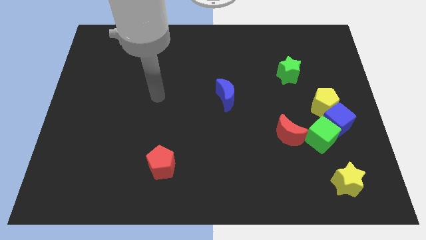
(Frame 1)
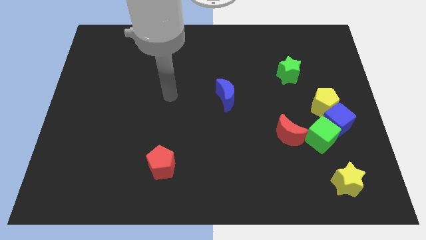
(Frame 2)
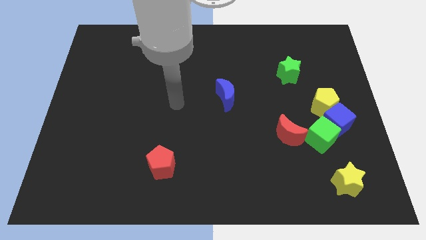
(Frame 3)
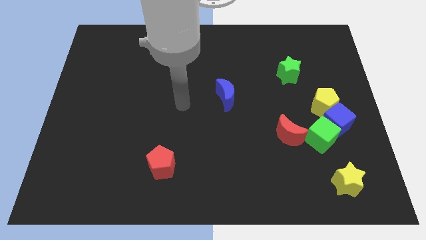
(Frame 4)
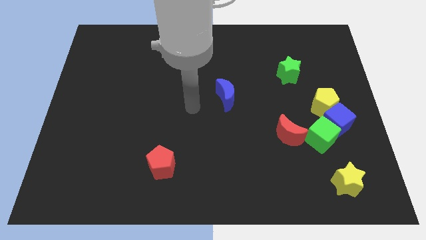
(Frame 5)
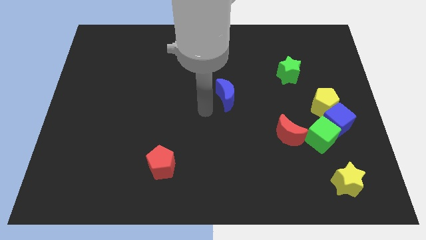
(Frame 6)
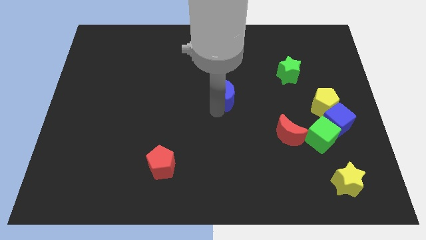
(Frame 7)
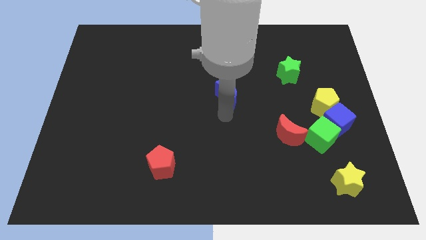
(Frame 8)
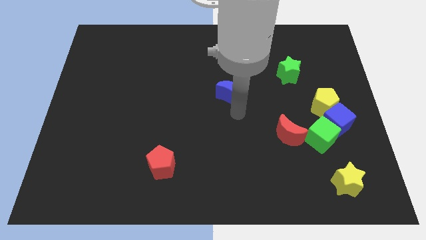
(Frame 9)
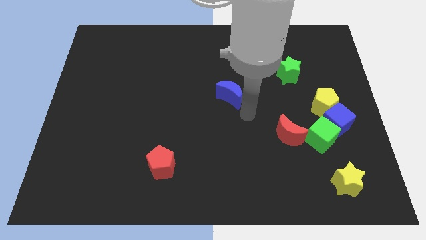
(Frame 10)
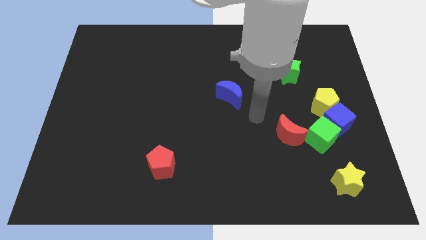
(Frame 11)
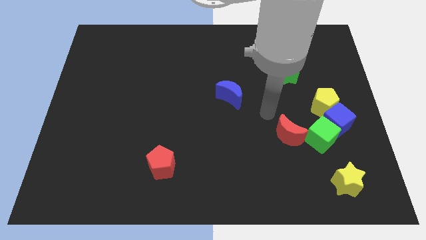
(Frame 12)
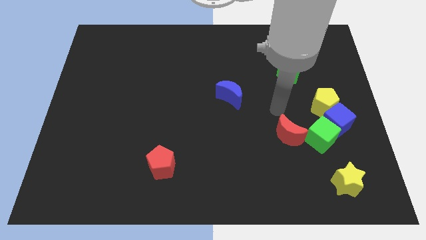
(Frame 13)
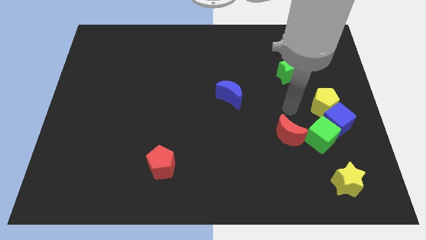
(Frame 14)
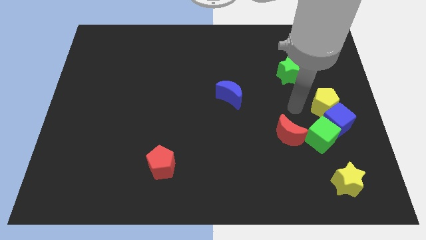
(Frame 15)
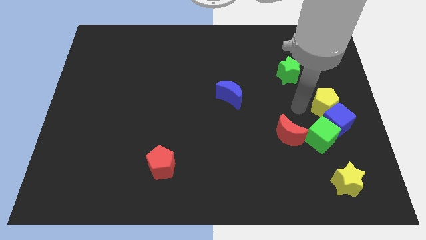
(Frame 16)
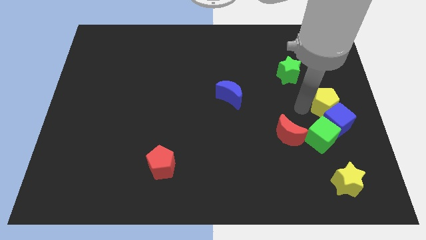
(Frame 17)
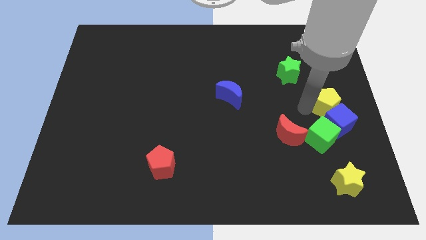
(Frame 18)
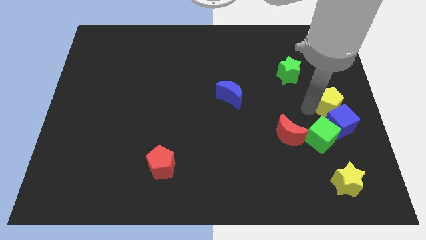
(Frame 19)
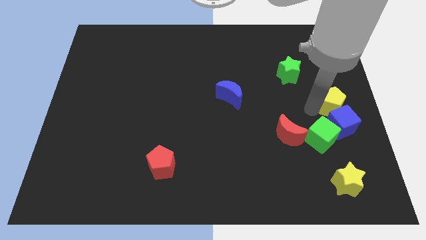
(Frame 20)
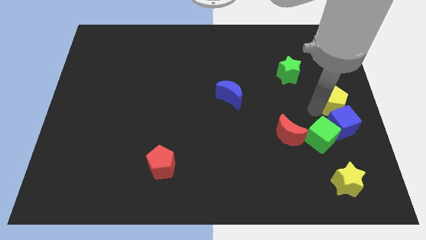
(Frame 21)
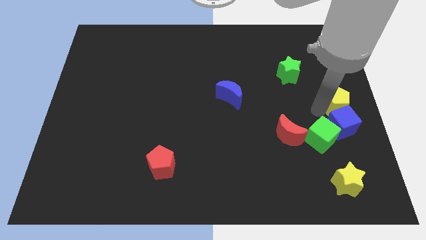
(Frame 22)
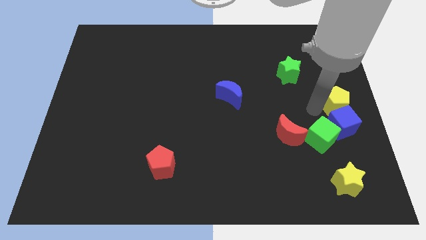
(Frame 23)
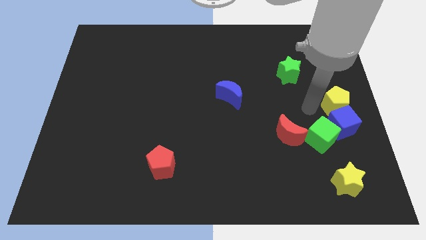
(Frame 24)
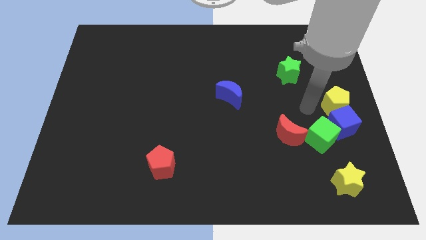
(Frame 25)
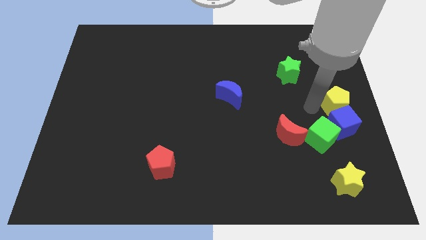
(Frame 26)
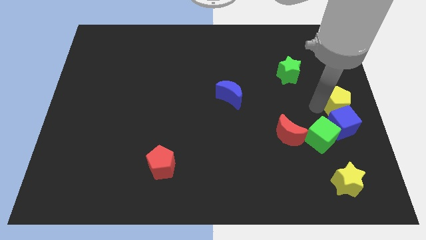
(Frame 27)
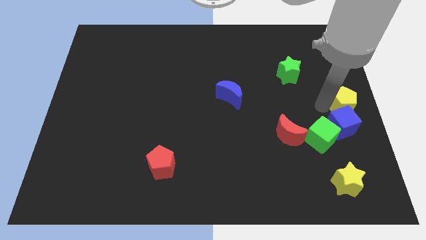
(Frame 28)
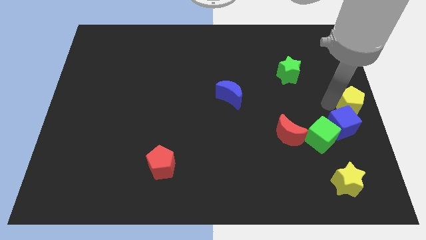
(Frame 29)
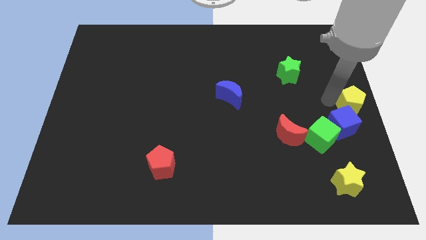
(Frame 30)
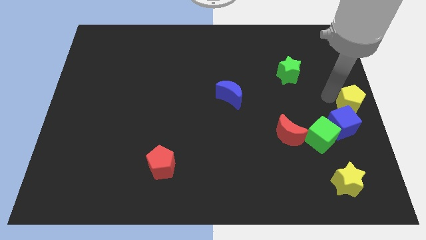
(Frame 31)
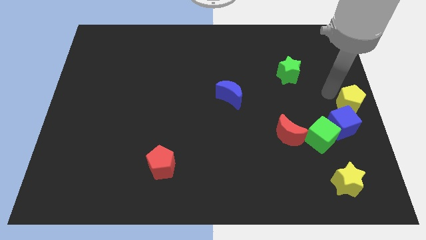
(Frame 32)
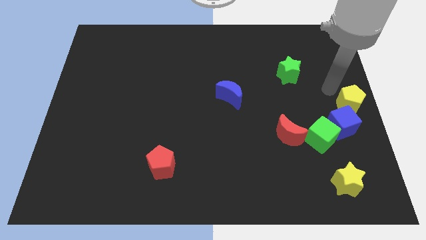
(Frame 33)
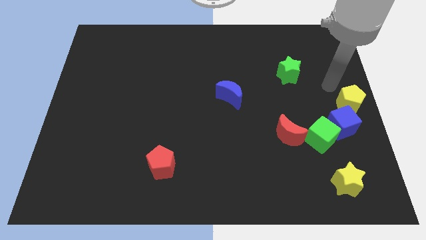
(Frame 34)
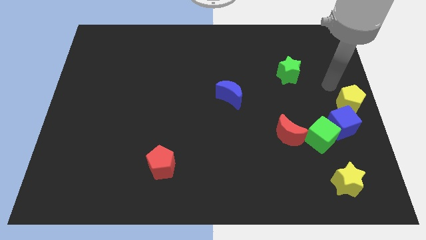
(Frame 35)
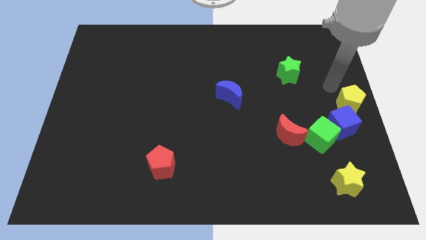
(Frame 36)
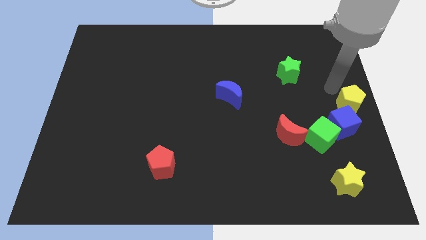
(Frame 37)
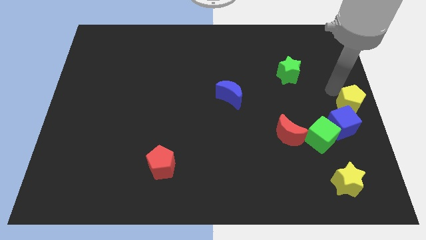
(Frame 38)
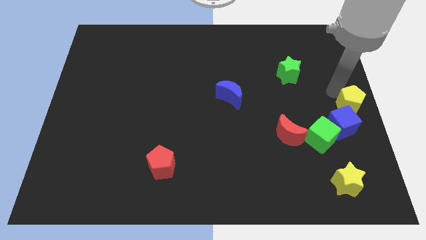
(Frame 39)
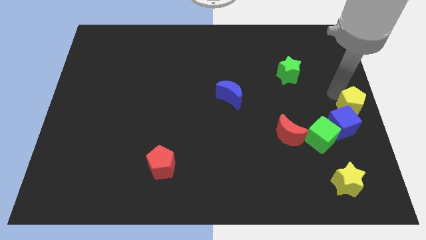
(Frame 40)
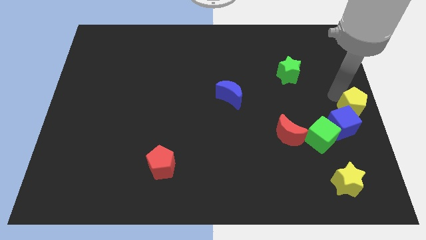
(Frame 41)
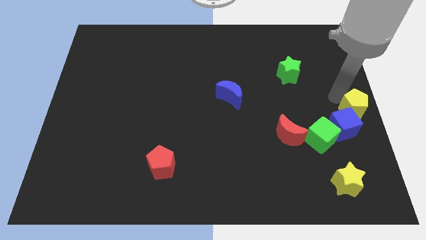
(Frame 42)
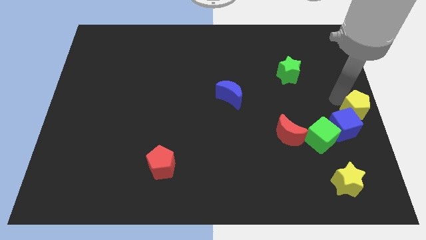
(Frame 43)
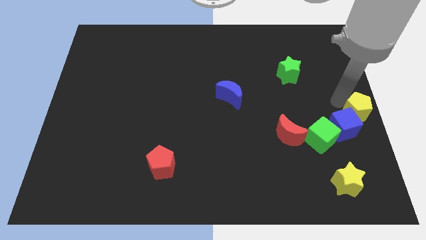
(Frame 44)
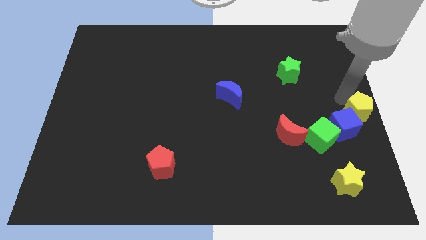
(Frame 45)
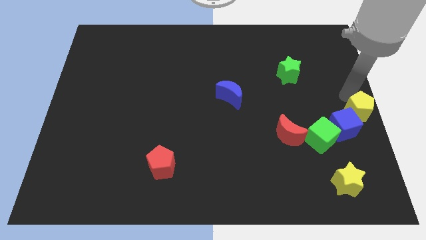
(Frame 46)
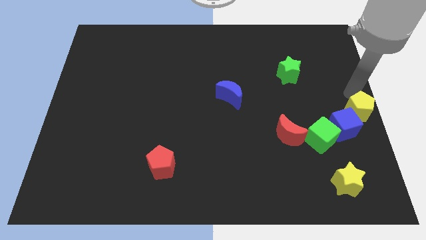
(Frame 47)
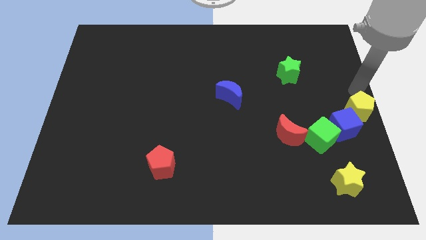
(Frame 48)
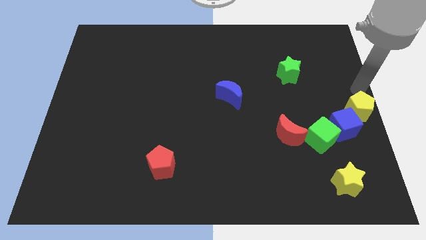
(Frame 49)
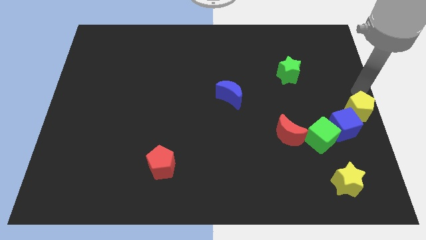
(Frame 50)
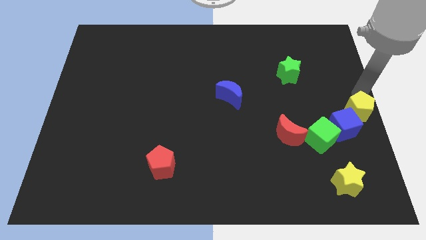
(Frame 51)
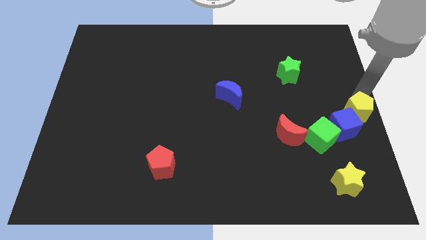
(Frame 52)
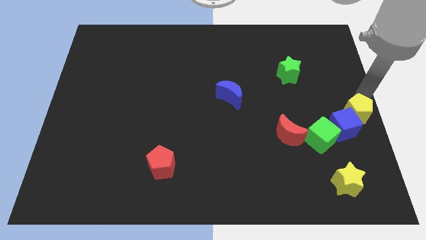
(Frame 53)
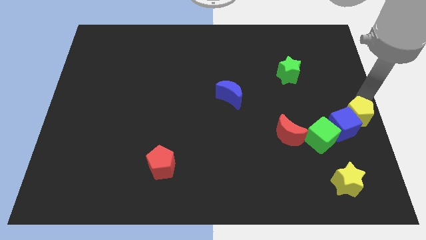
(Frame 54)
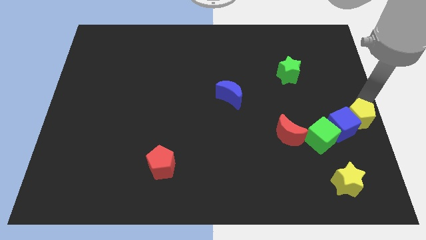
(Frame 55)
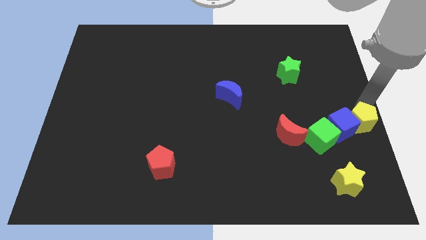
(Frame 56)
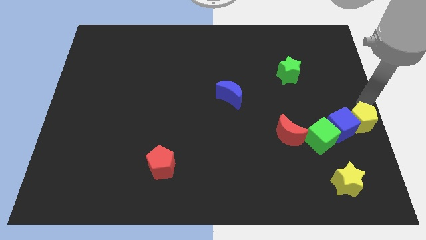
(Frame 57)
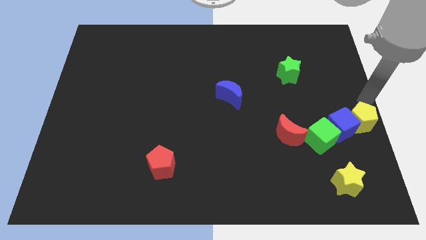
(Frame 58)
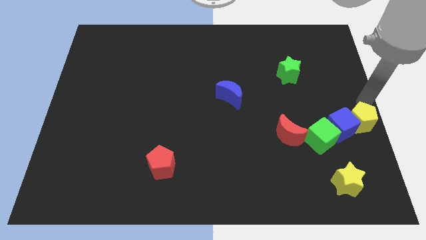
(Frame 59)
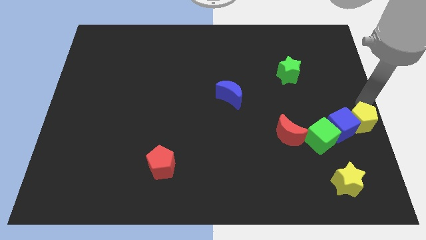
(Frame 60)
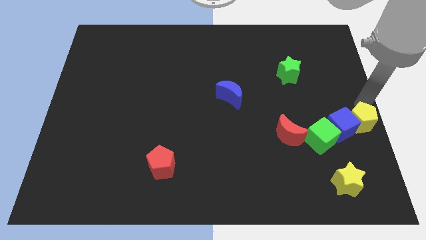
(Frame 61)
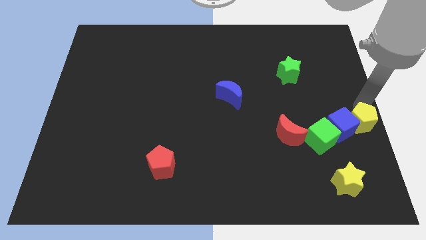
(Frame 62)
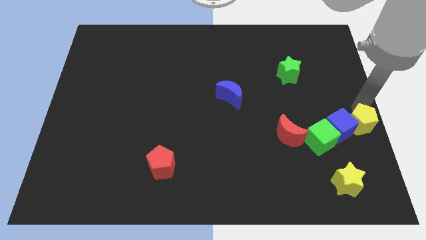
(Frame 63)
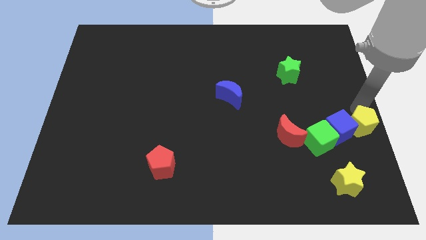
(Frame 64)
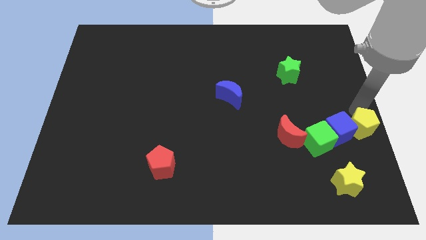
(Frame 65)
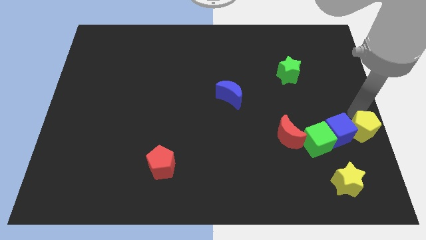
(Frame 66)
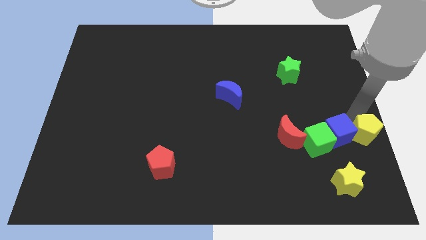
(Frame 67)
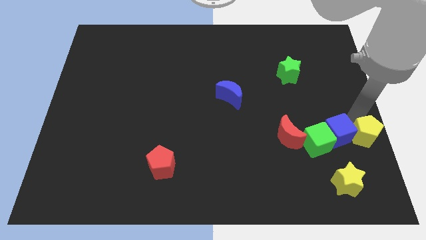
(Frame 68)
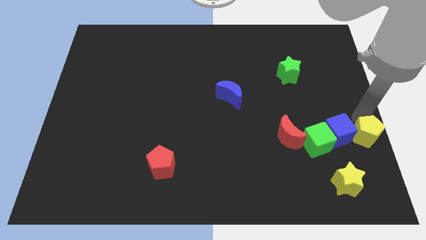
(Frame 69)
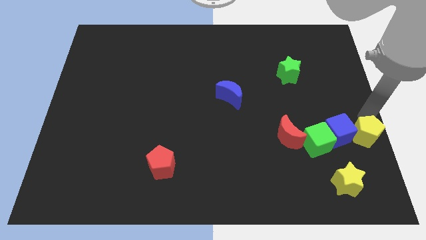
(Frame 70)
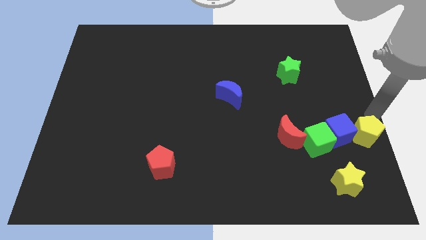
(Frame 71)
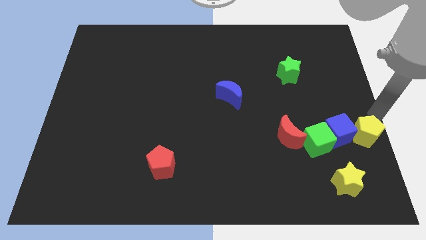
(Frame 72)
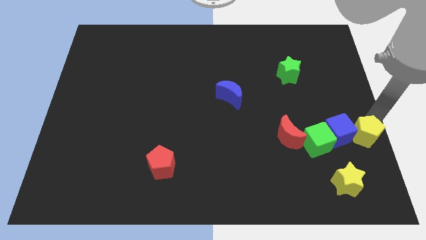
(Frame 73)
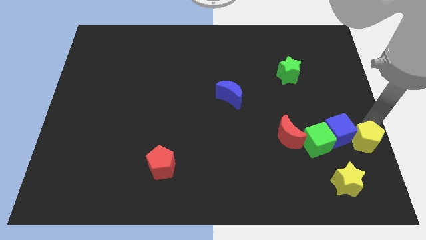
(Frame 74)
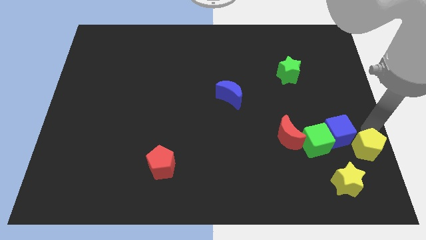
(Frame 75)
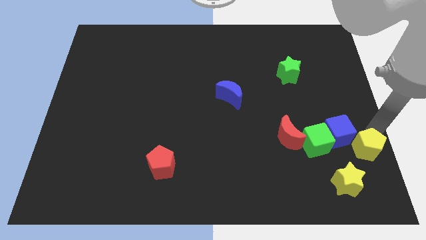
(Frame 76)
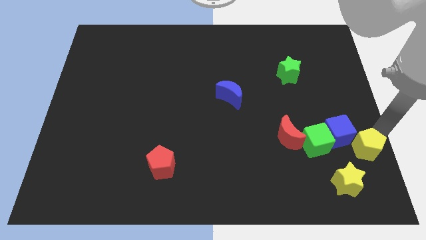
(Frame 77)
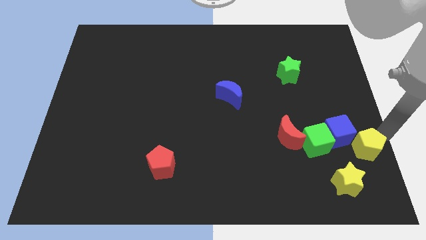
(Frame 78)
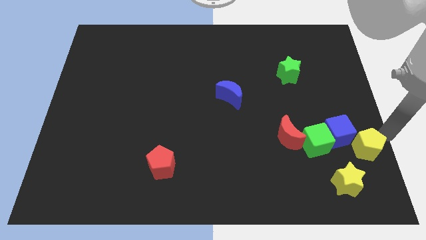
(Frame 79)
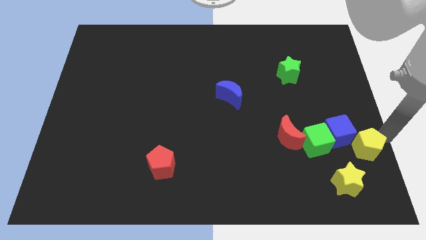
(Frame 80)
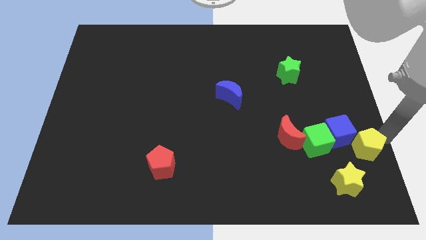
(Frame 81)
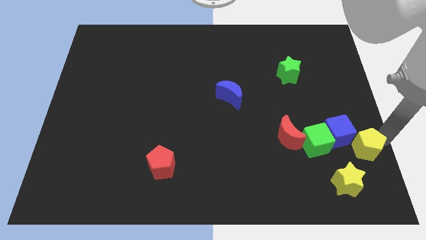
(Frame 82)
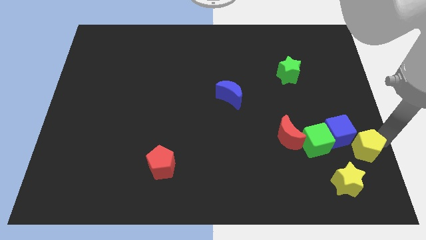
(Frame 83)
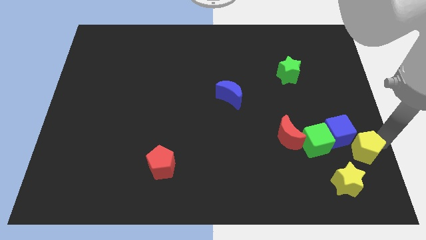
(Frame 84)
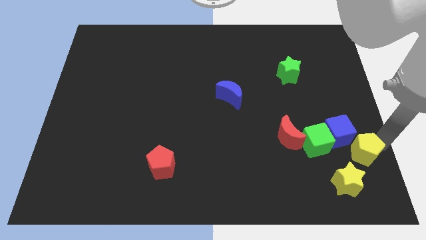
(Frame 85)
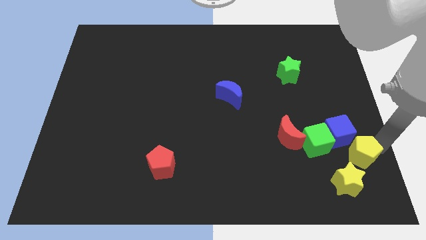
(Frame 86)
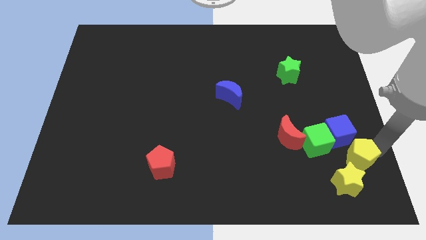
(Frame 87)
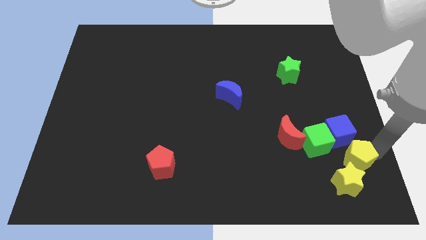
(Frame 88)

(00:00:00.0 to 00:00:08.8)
move the yellow pentagon close to the yellow star
